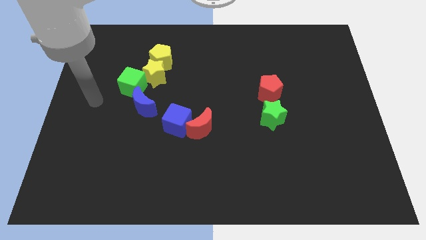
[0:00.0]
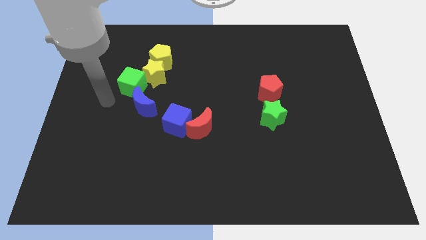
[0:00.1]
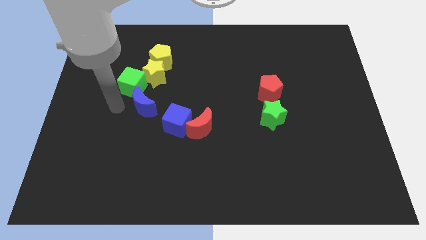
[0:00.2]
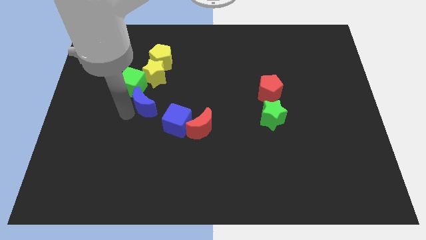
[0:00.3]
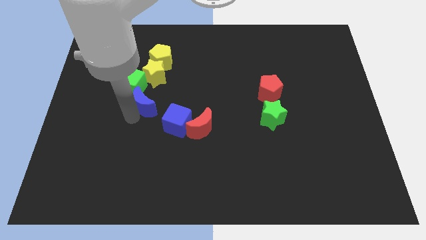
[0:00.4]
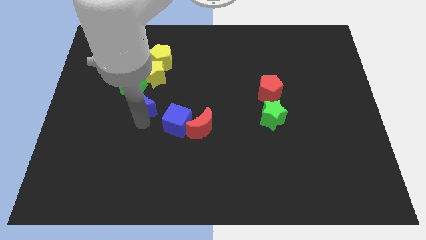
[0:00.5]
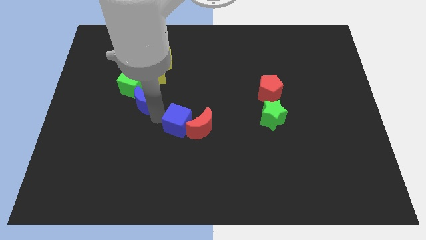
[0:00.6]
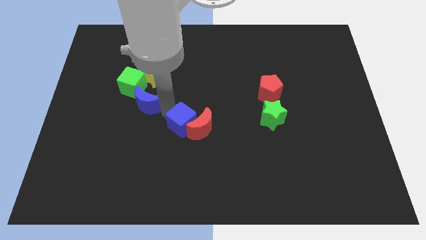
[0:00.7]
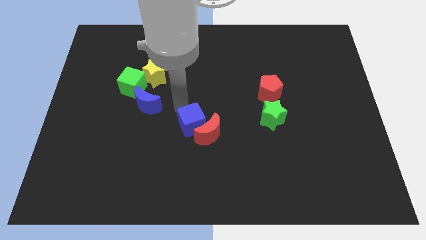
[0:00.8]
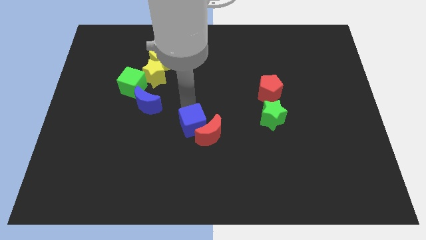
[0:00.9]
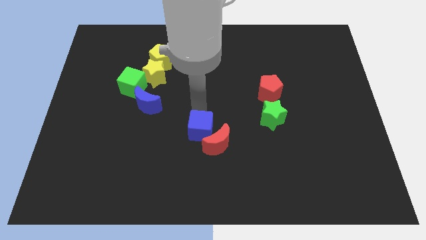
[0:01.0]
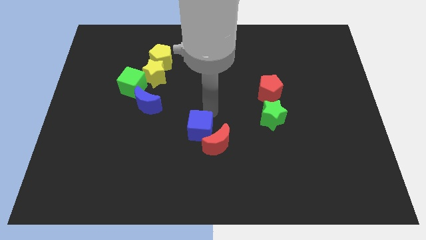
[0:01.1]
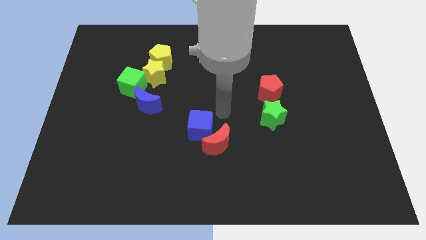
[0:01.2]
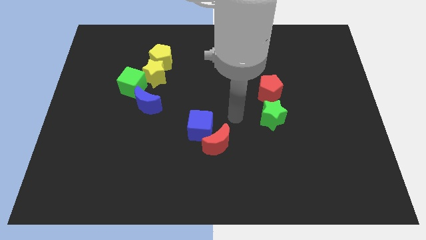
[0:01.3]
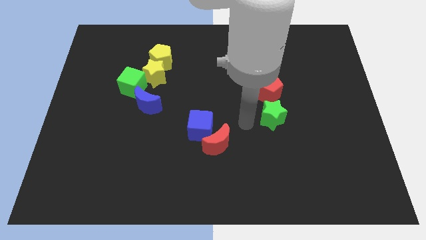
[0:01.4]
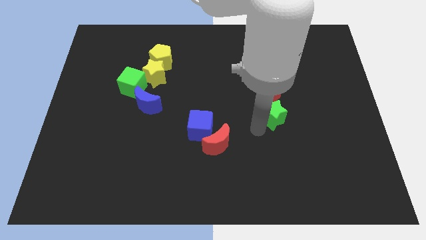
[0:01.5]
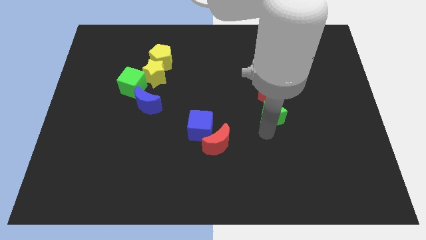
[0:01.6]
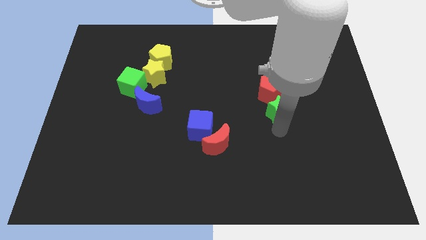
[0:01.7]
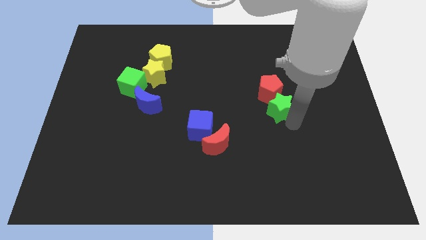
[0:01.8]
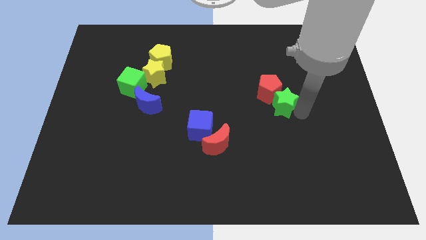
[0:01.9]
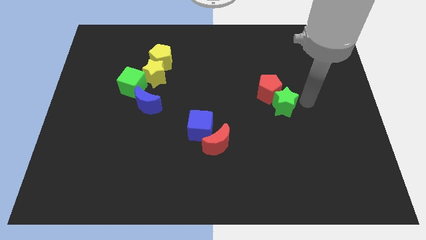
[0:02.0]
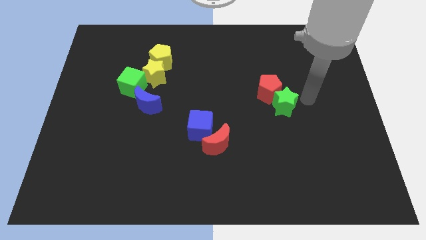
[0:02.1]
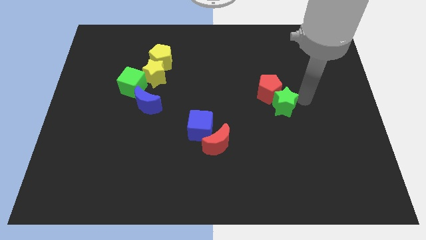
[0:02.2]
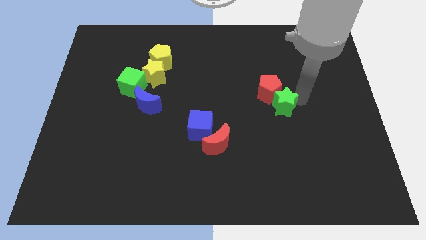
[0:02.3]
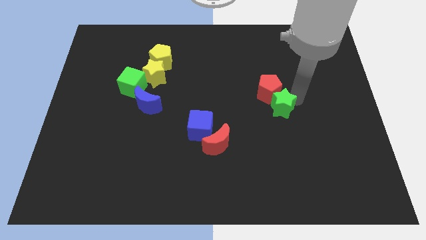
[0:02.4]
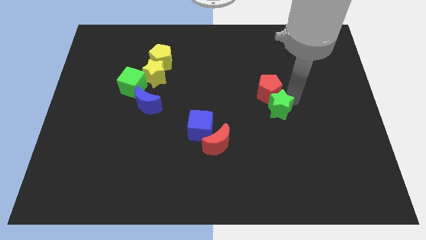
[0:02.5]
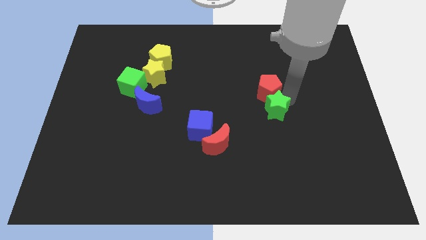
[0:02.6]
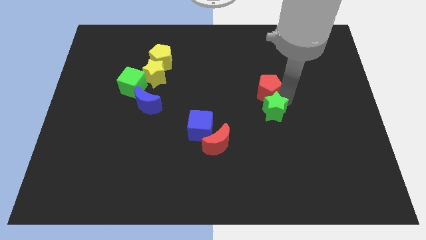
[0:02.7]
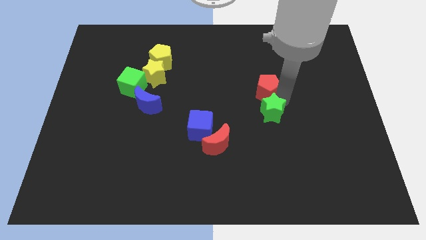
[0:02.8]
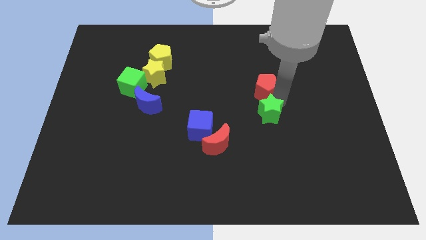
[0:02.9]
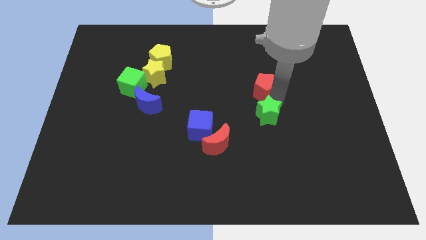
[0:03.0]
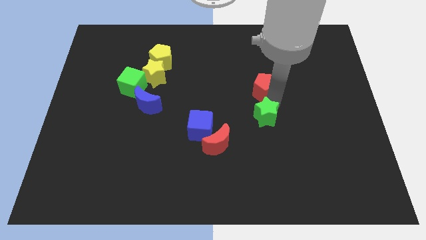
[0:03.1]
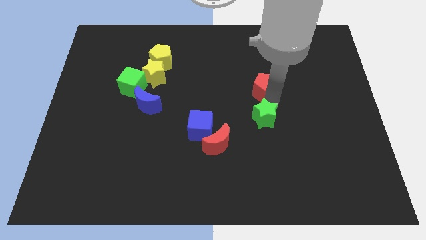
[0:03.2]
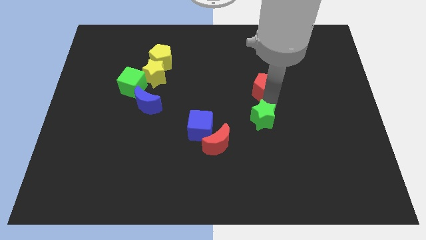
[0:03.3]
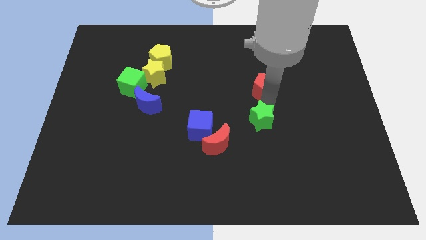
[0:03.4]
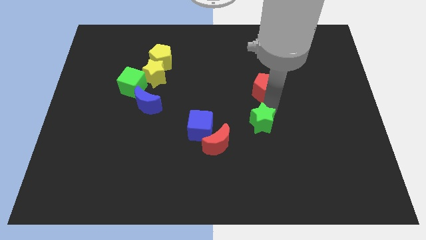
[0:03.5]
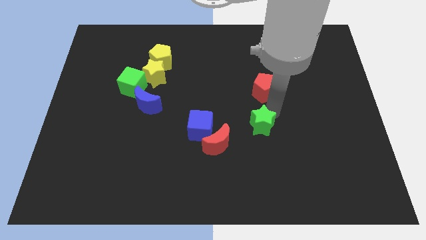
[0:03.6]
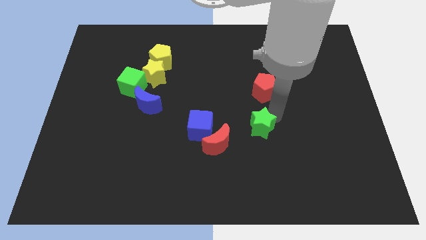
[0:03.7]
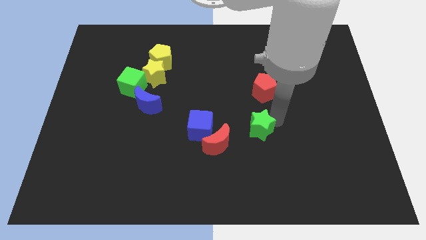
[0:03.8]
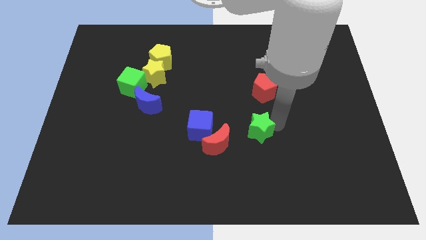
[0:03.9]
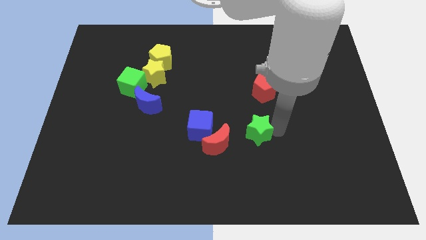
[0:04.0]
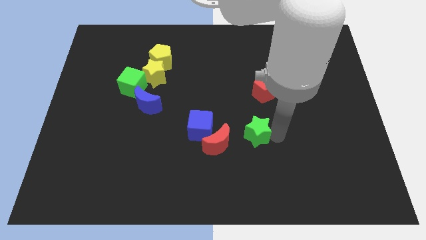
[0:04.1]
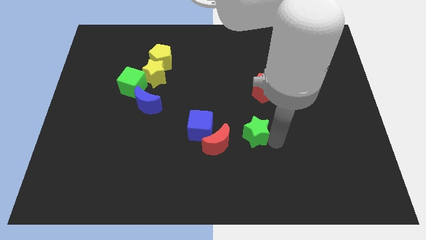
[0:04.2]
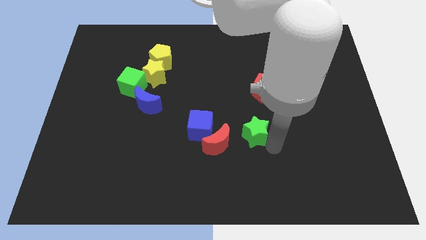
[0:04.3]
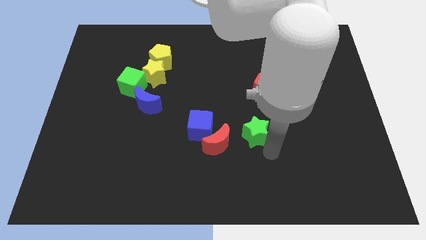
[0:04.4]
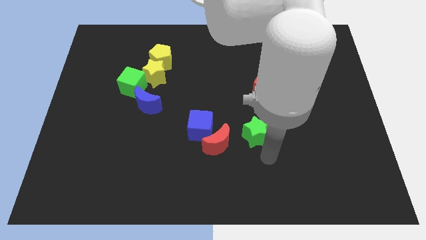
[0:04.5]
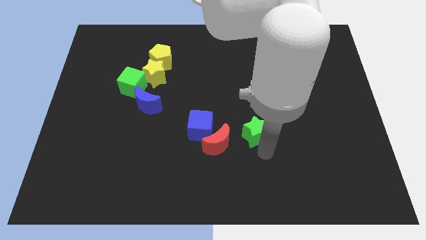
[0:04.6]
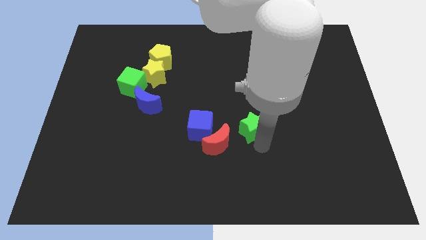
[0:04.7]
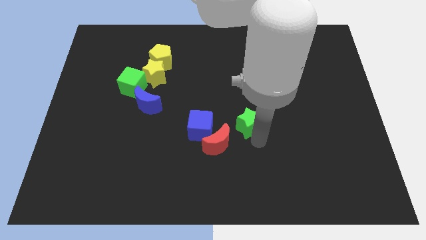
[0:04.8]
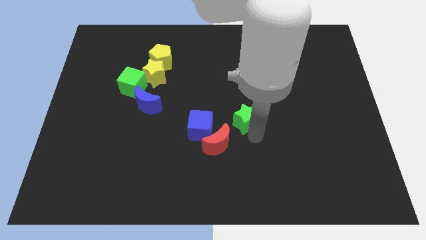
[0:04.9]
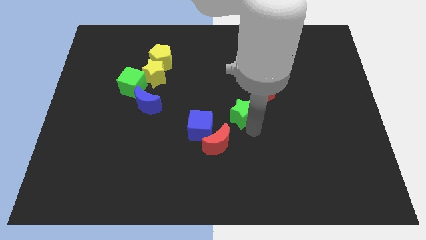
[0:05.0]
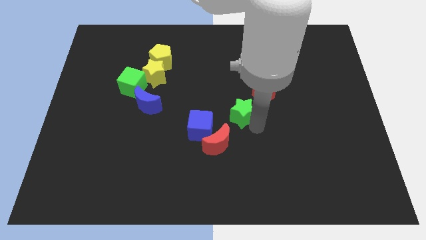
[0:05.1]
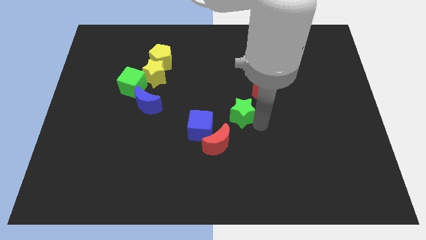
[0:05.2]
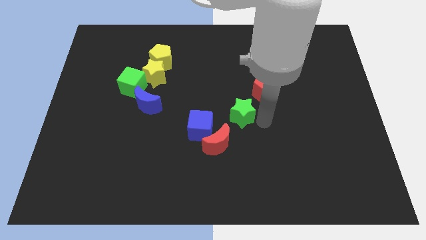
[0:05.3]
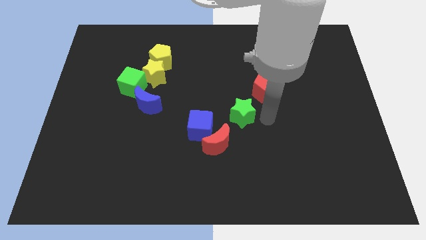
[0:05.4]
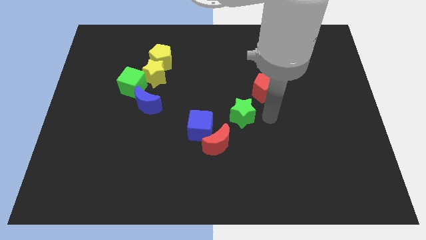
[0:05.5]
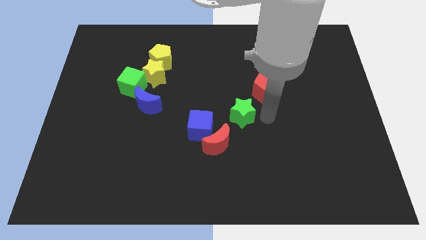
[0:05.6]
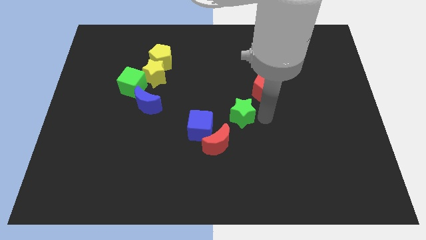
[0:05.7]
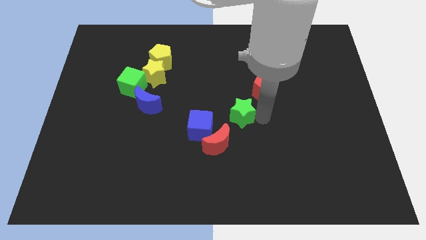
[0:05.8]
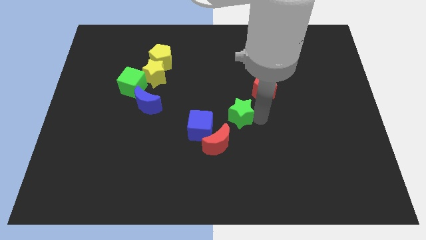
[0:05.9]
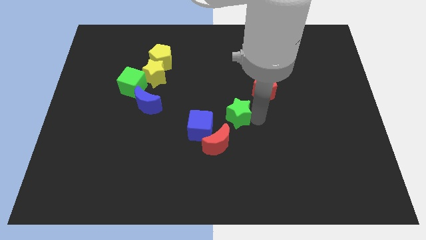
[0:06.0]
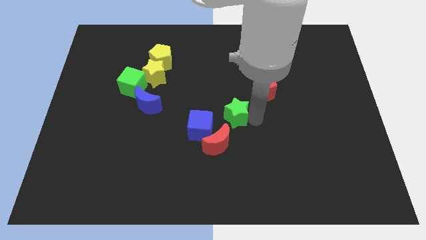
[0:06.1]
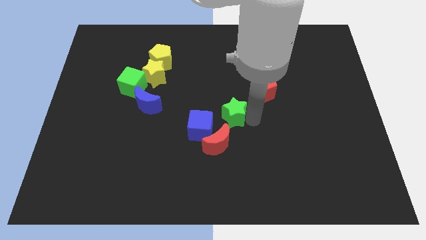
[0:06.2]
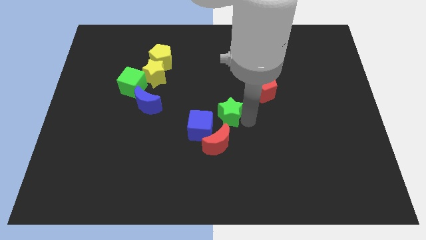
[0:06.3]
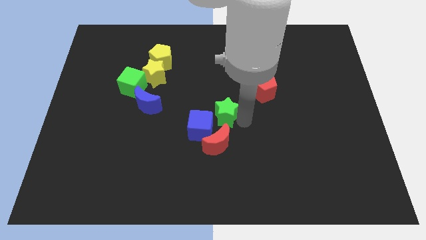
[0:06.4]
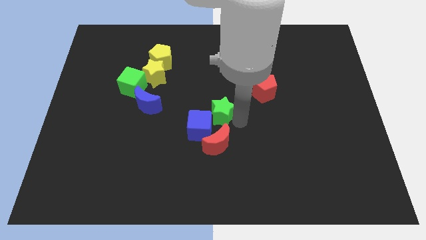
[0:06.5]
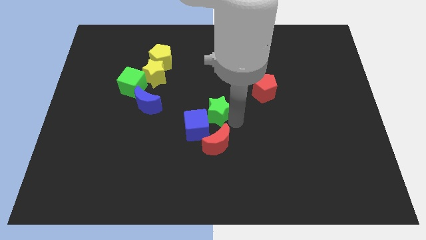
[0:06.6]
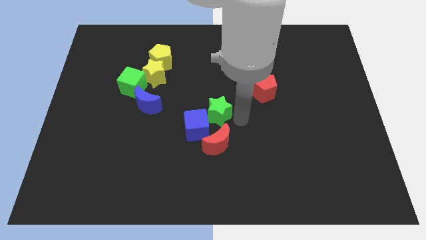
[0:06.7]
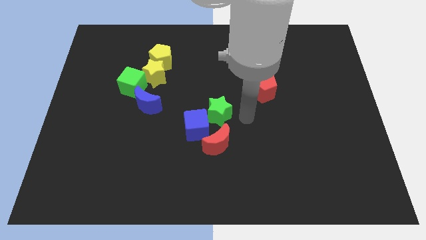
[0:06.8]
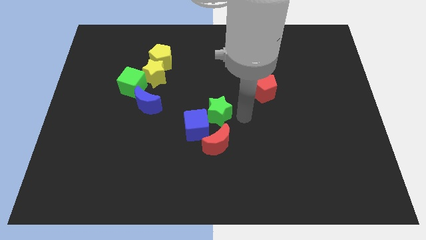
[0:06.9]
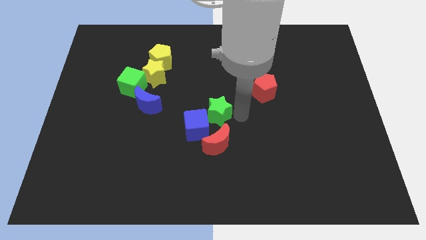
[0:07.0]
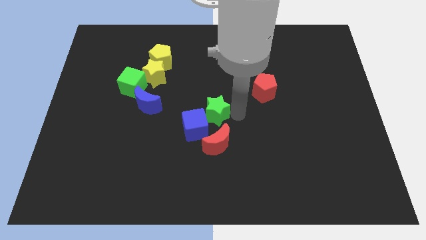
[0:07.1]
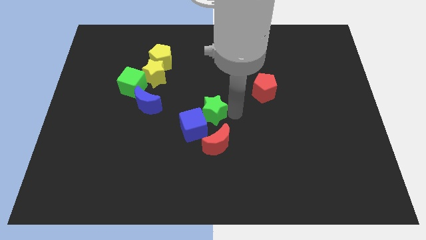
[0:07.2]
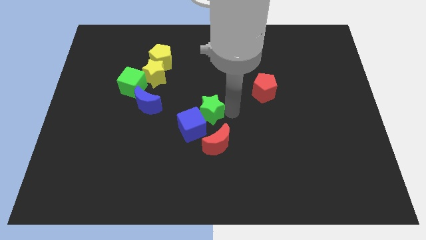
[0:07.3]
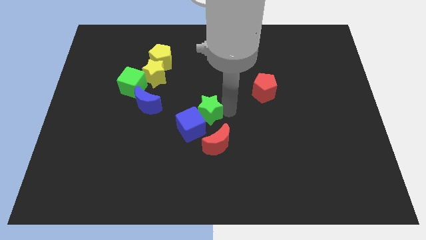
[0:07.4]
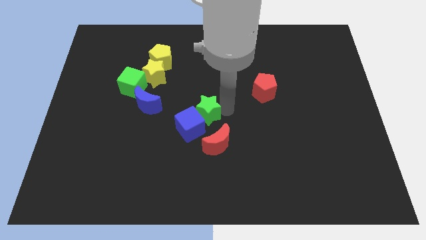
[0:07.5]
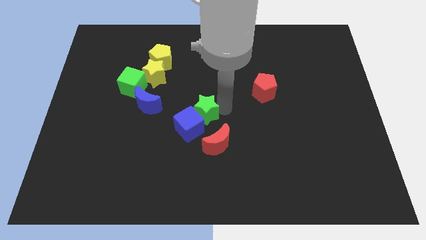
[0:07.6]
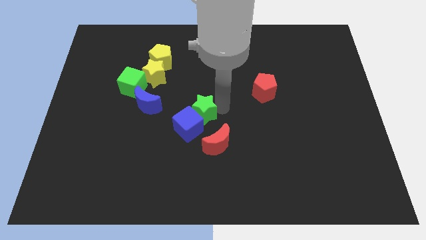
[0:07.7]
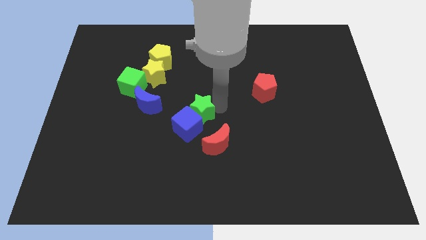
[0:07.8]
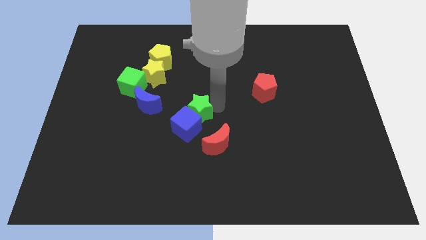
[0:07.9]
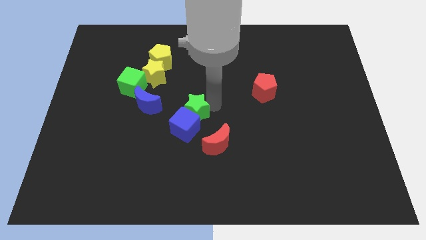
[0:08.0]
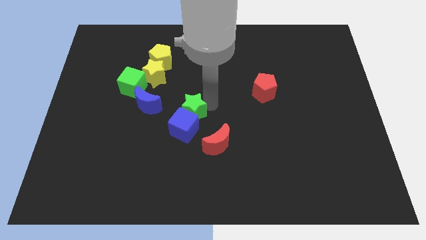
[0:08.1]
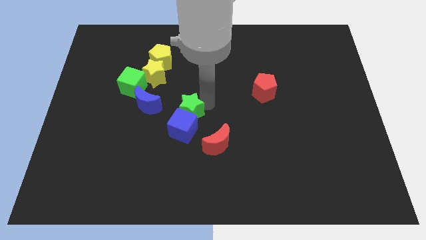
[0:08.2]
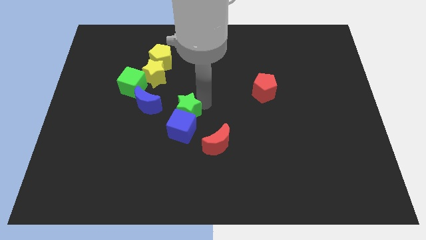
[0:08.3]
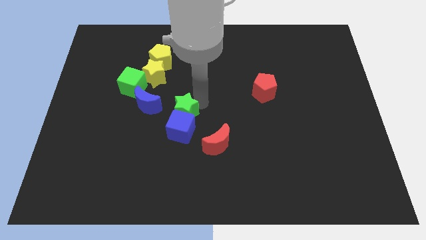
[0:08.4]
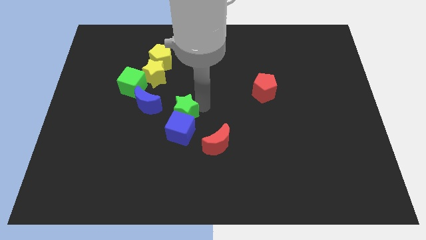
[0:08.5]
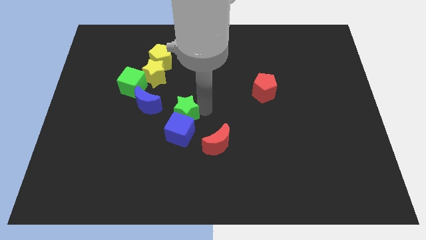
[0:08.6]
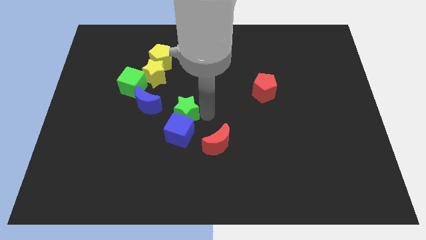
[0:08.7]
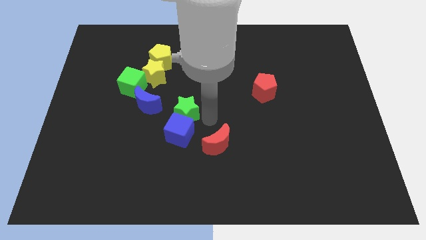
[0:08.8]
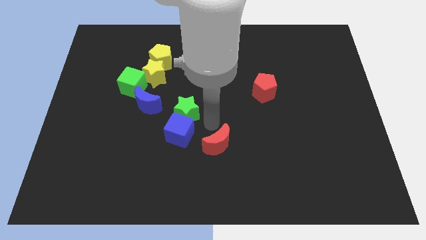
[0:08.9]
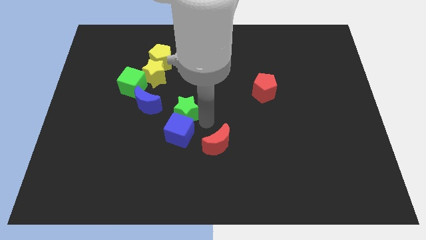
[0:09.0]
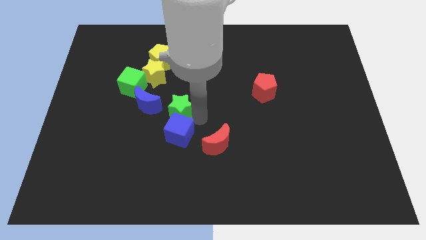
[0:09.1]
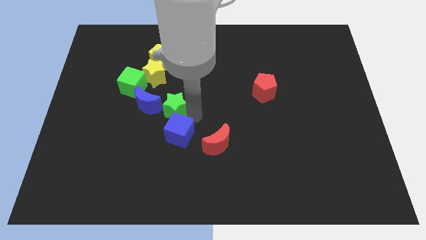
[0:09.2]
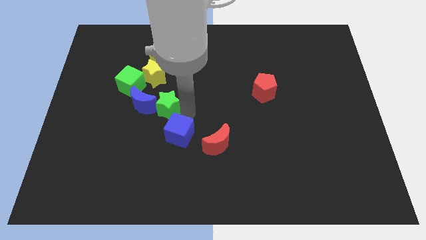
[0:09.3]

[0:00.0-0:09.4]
slide the green star to the blue moon
